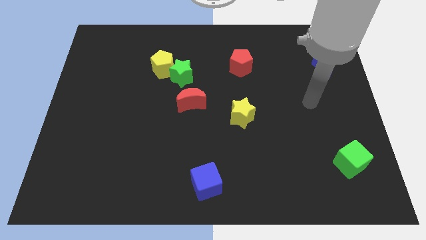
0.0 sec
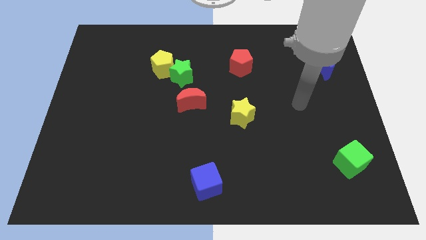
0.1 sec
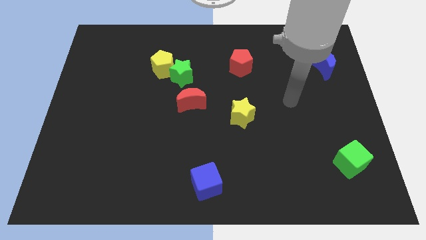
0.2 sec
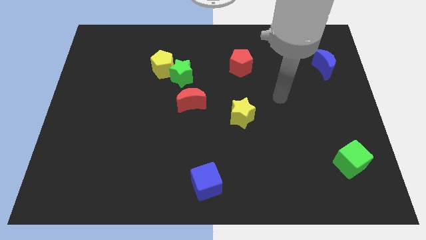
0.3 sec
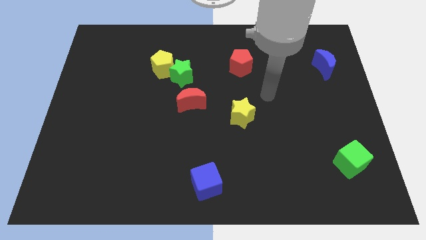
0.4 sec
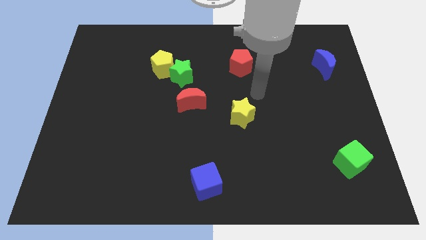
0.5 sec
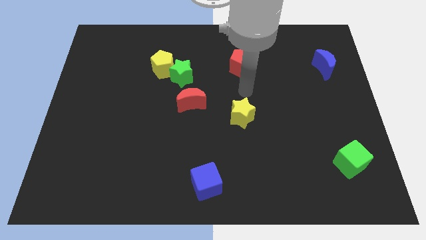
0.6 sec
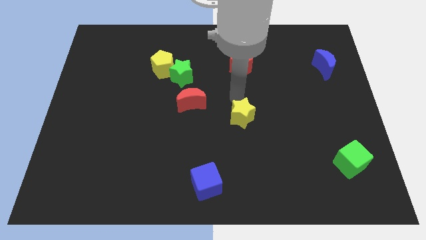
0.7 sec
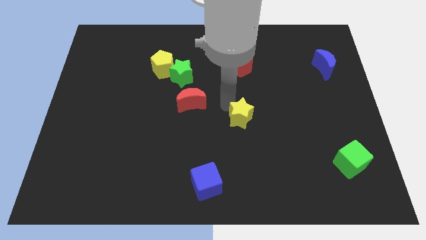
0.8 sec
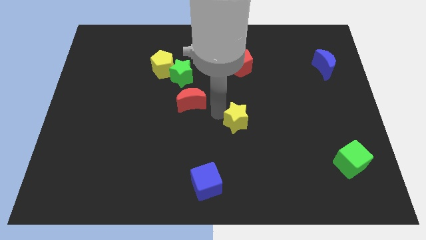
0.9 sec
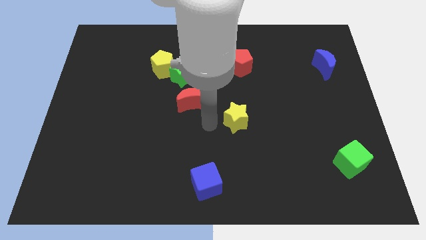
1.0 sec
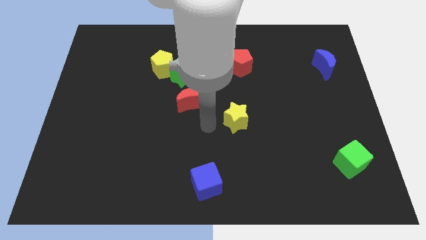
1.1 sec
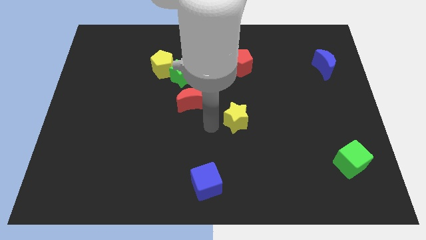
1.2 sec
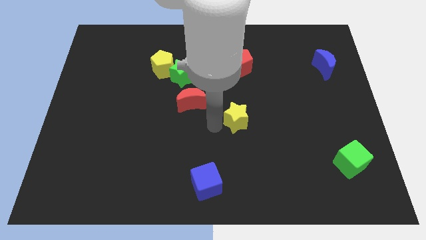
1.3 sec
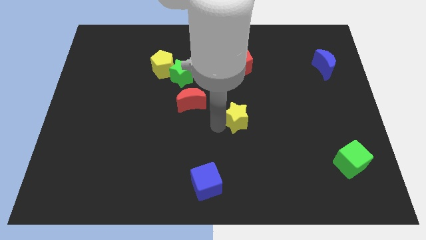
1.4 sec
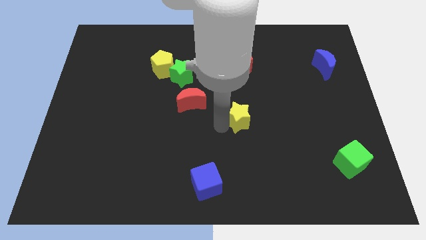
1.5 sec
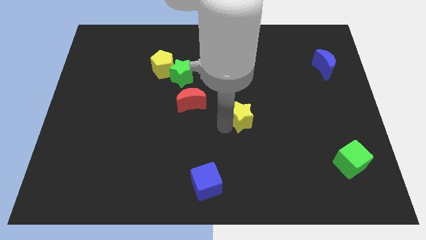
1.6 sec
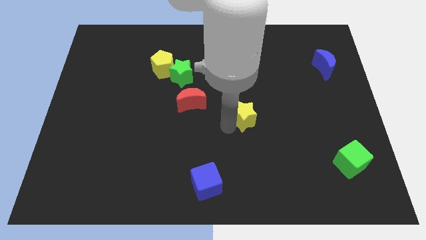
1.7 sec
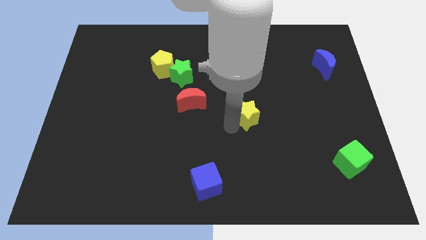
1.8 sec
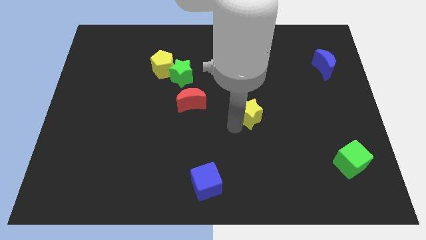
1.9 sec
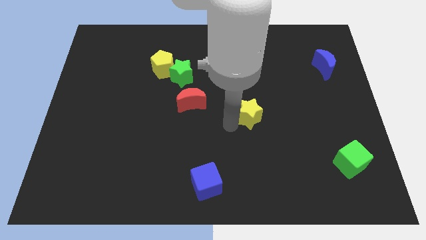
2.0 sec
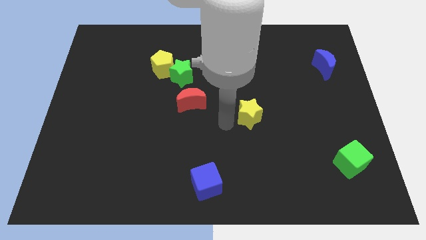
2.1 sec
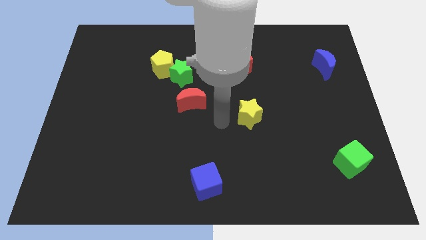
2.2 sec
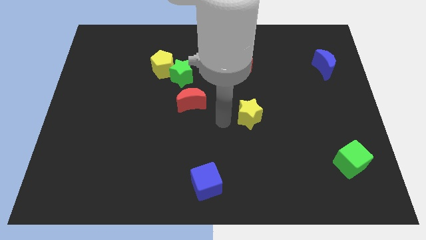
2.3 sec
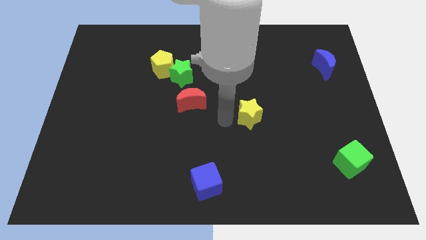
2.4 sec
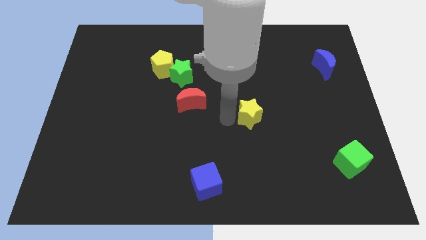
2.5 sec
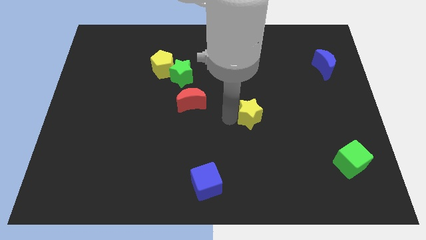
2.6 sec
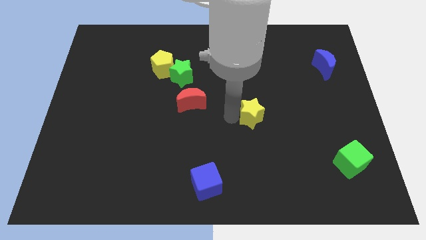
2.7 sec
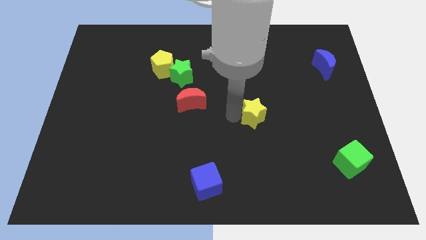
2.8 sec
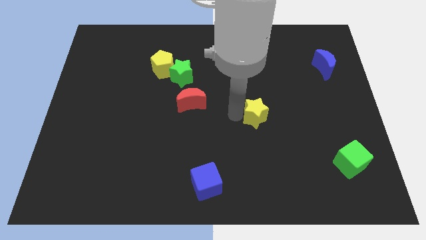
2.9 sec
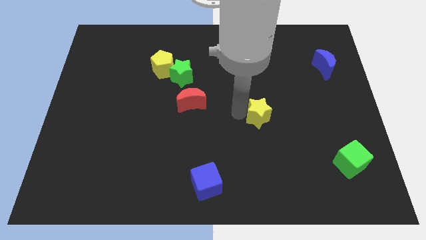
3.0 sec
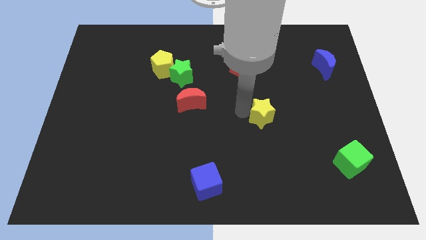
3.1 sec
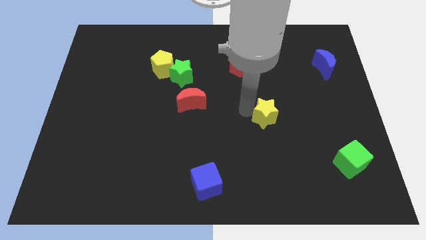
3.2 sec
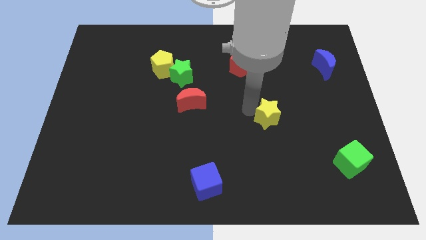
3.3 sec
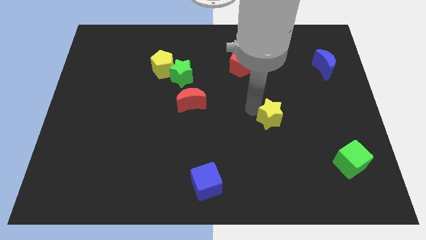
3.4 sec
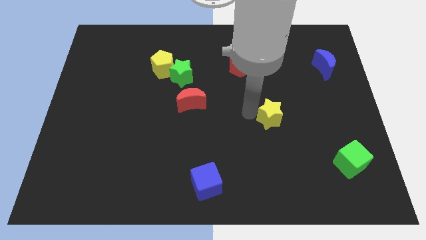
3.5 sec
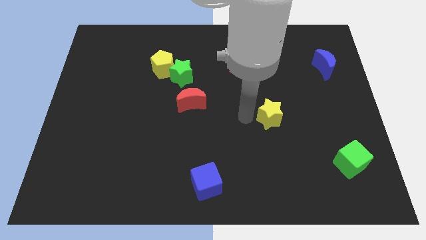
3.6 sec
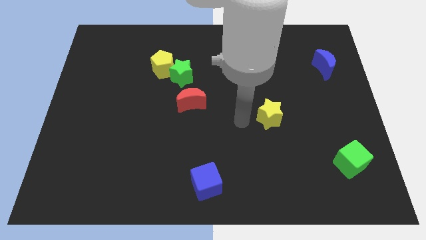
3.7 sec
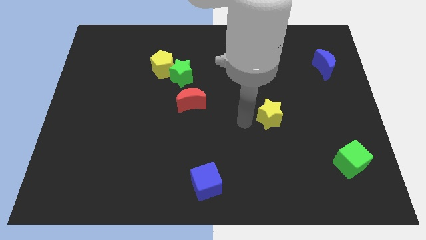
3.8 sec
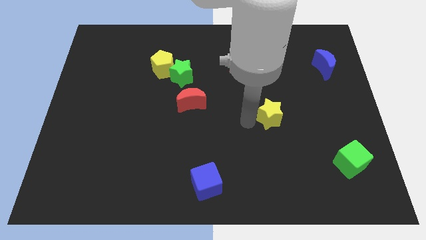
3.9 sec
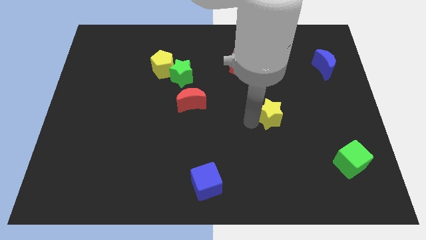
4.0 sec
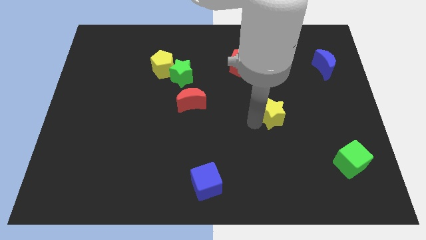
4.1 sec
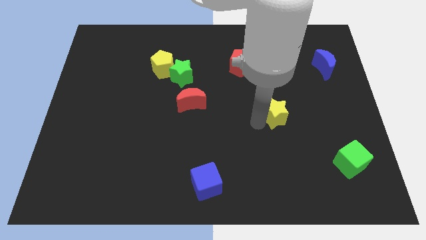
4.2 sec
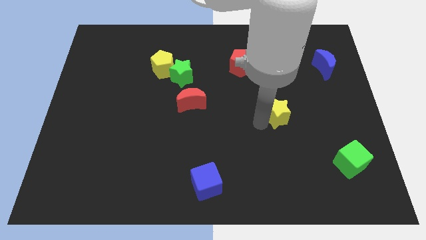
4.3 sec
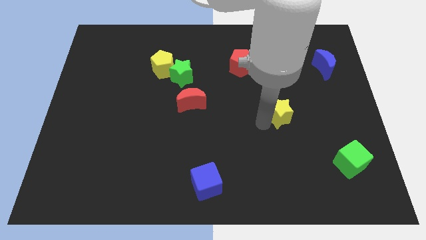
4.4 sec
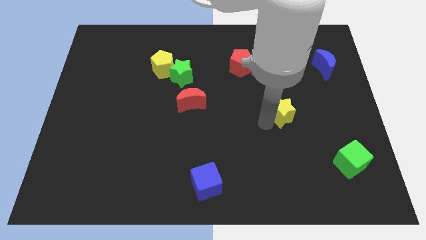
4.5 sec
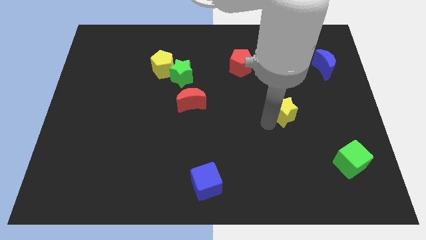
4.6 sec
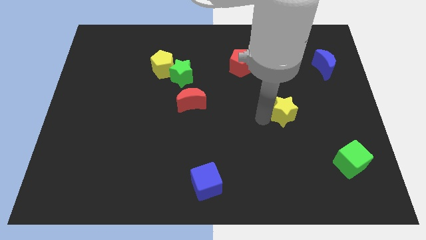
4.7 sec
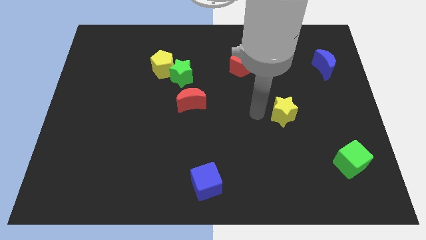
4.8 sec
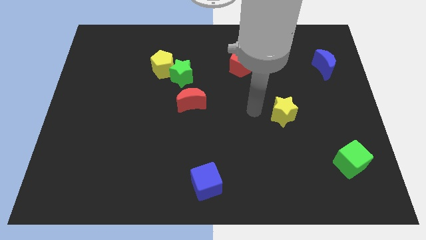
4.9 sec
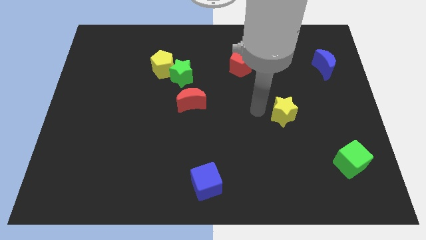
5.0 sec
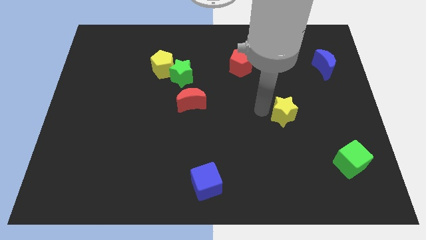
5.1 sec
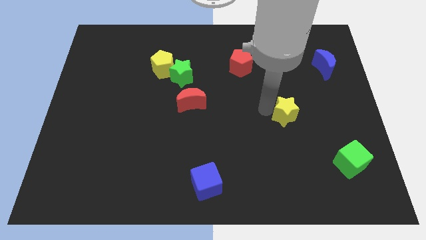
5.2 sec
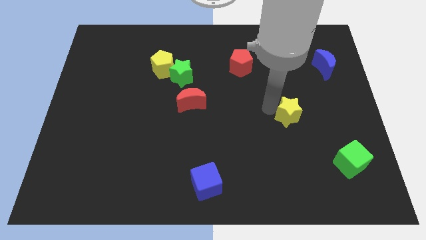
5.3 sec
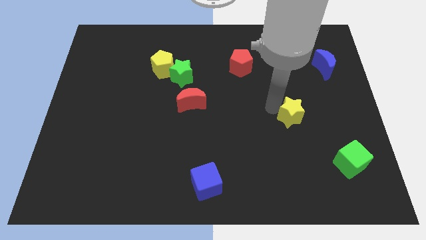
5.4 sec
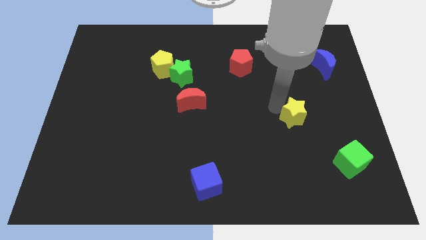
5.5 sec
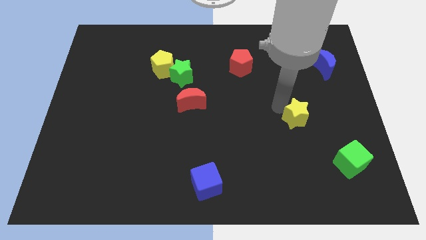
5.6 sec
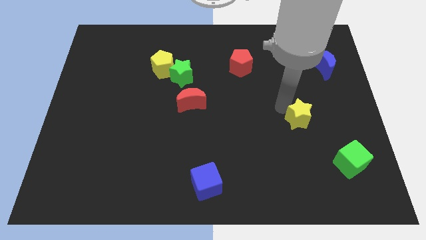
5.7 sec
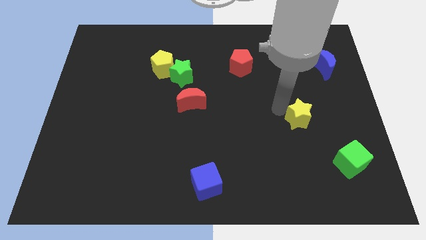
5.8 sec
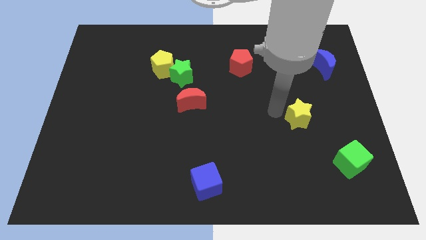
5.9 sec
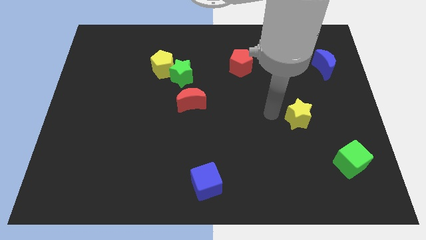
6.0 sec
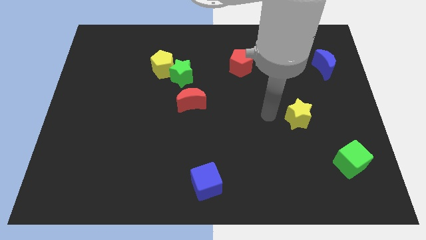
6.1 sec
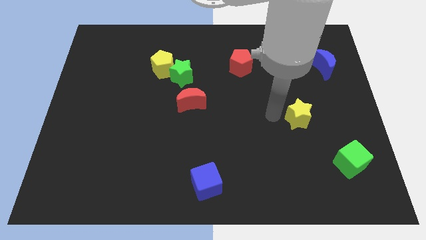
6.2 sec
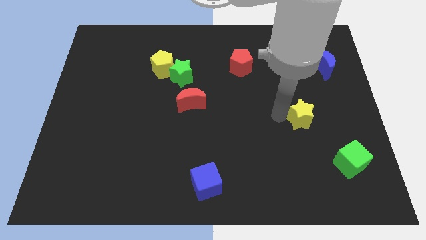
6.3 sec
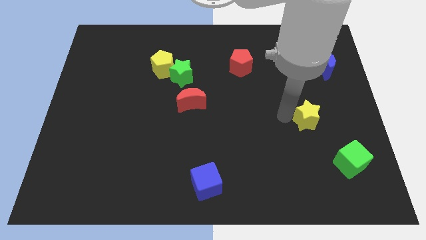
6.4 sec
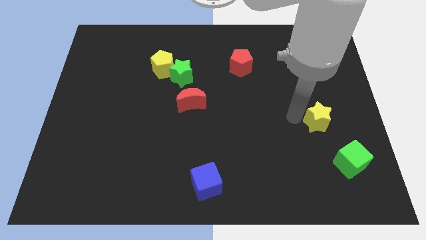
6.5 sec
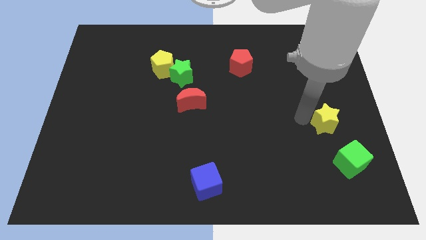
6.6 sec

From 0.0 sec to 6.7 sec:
push the yellow star to the top side of the green cube
